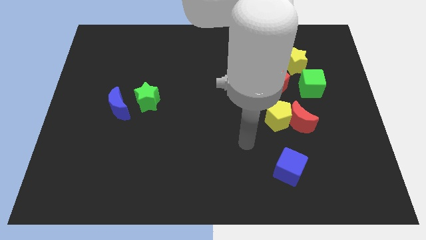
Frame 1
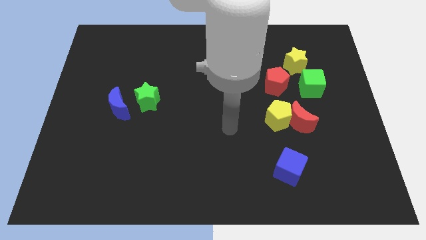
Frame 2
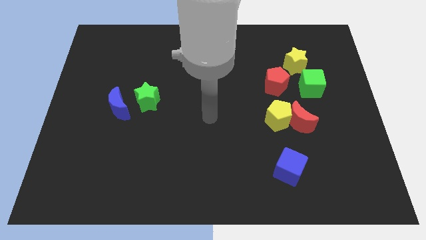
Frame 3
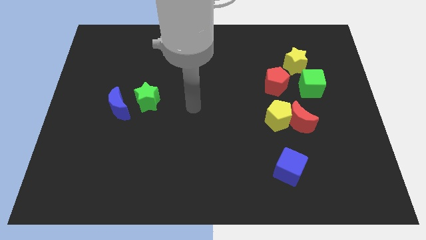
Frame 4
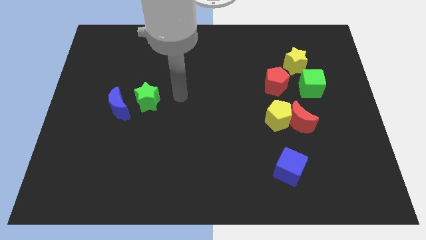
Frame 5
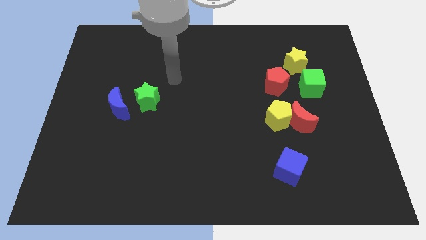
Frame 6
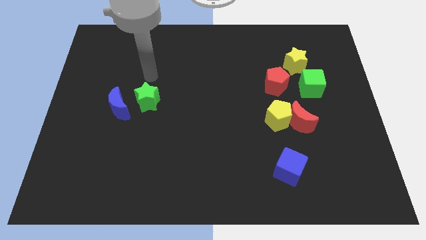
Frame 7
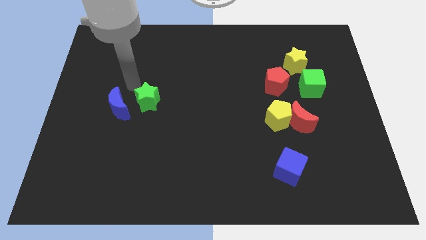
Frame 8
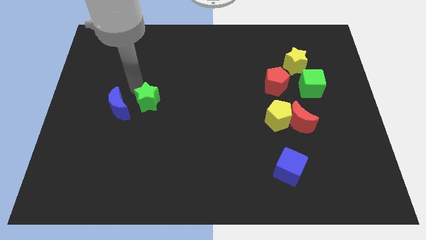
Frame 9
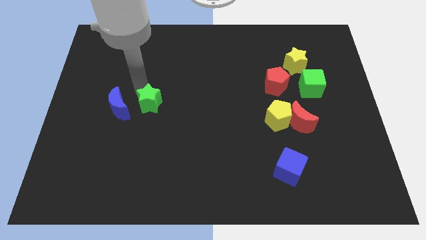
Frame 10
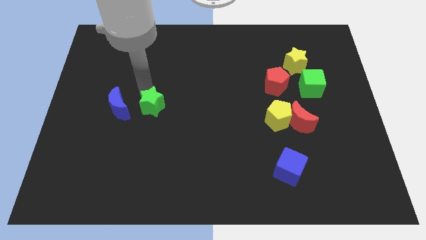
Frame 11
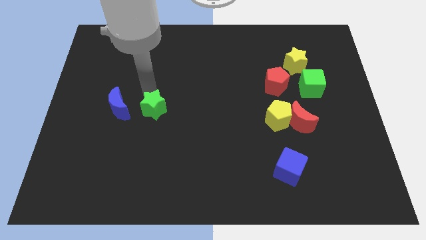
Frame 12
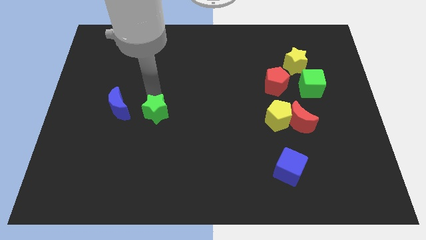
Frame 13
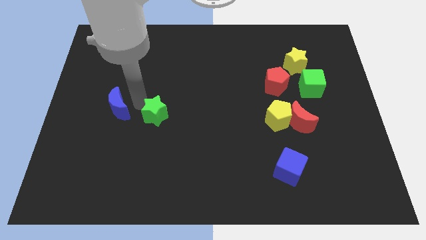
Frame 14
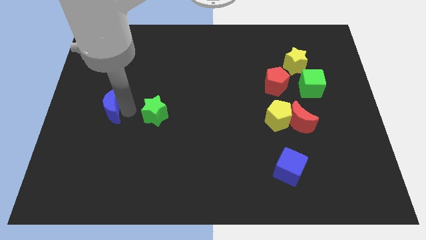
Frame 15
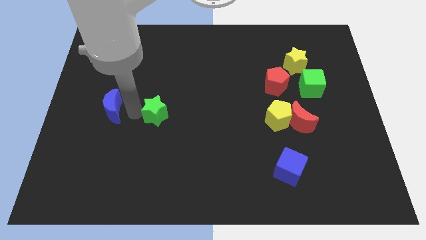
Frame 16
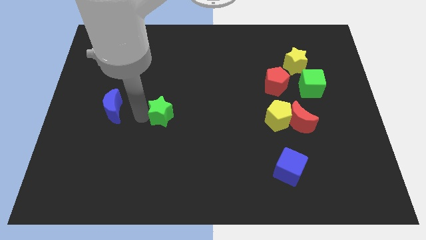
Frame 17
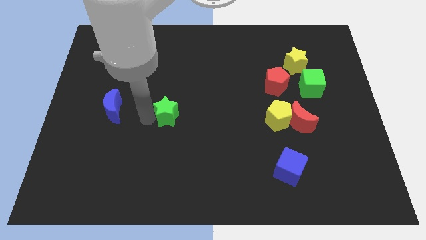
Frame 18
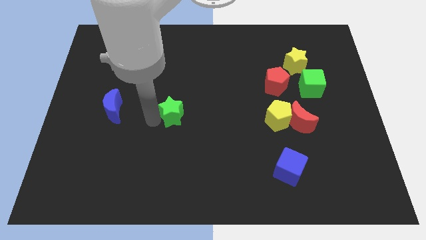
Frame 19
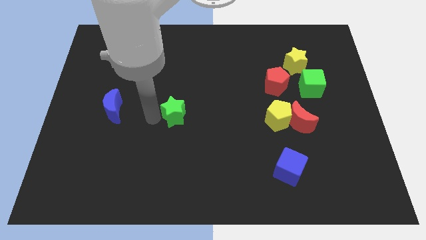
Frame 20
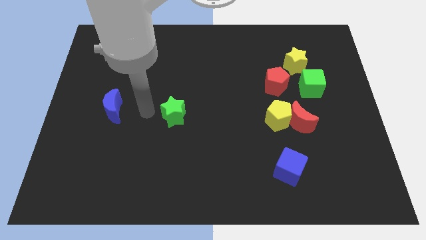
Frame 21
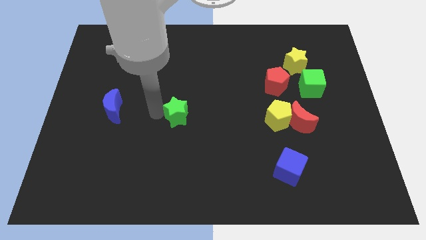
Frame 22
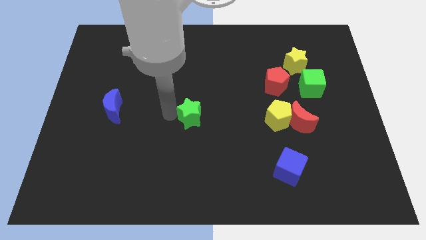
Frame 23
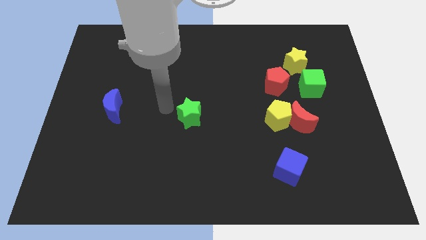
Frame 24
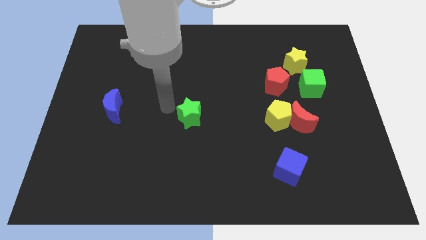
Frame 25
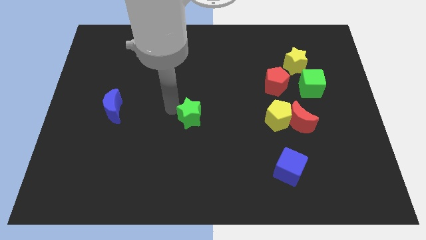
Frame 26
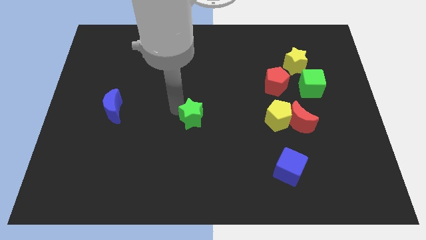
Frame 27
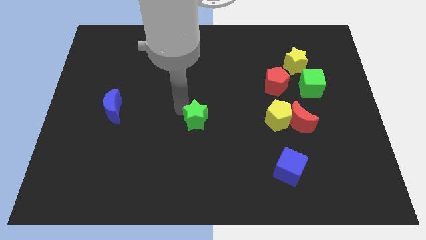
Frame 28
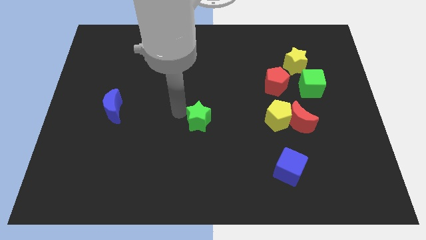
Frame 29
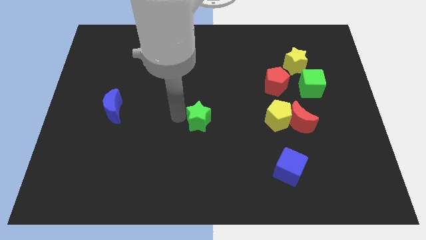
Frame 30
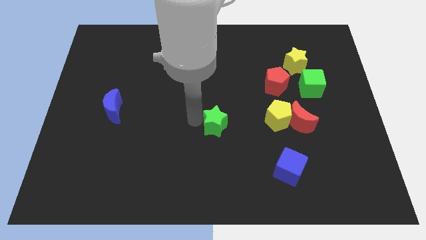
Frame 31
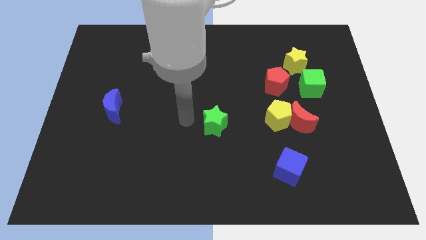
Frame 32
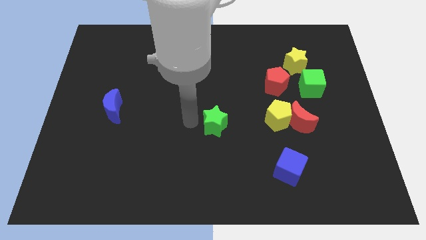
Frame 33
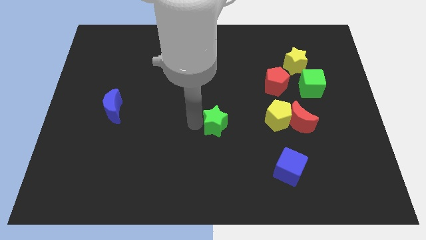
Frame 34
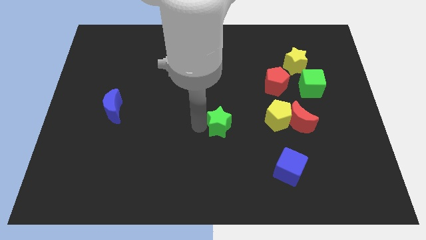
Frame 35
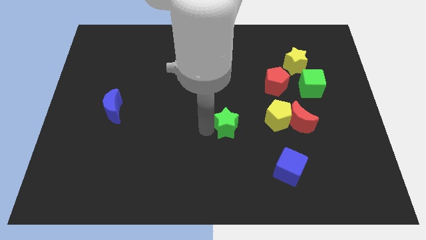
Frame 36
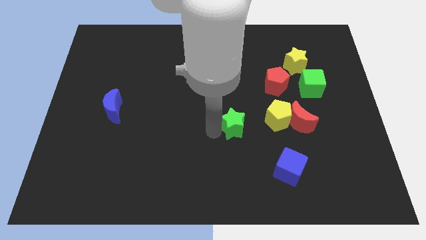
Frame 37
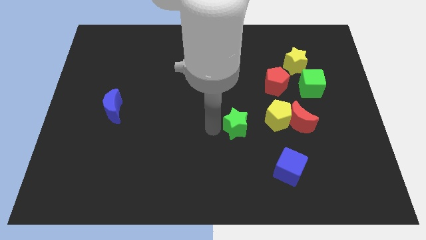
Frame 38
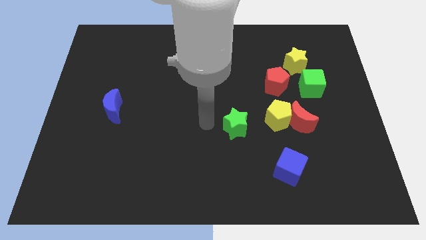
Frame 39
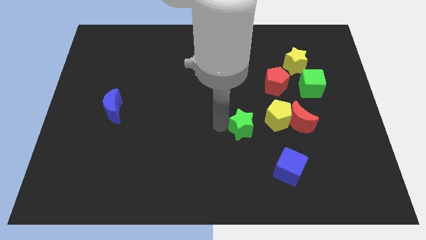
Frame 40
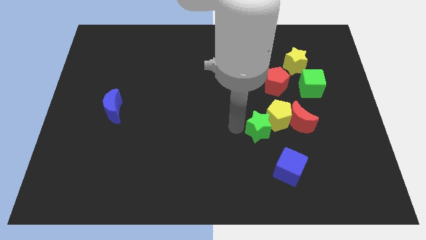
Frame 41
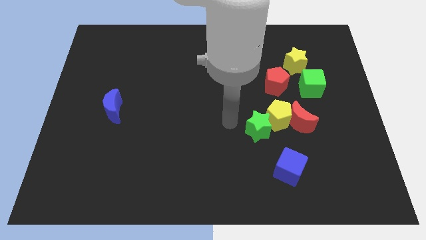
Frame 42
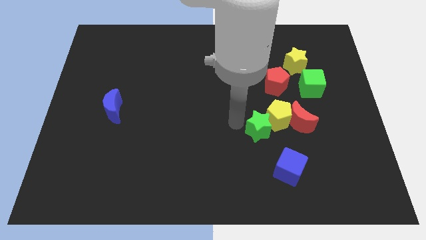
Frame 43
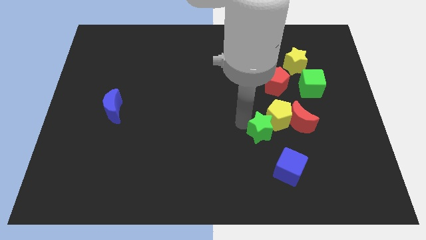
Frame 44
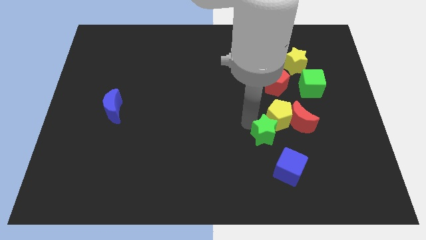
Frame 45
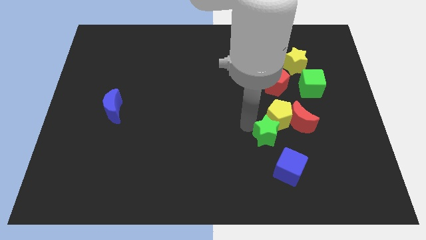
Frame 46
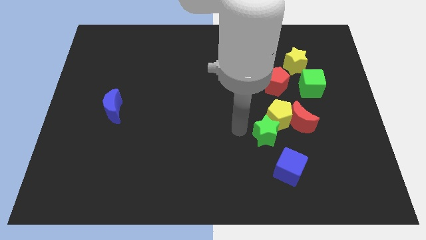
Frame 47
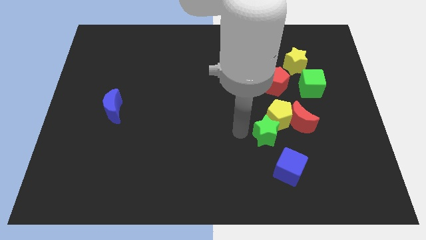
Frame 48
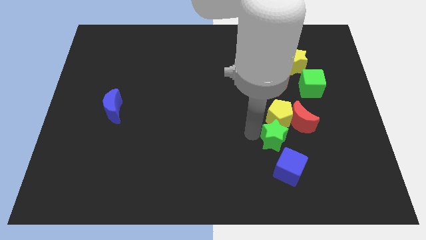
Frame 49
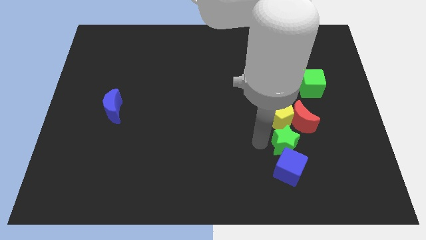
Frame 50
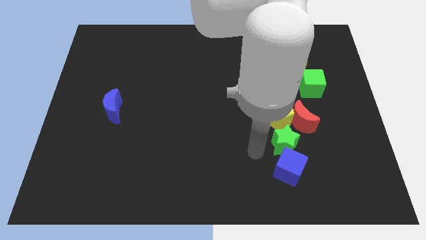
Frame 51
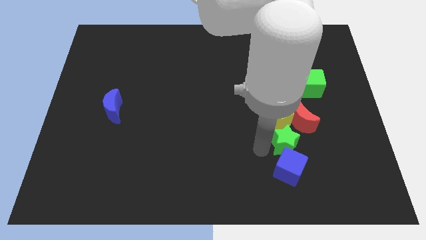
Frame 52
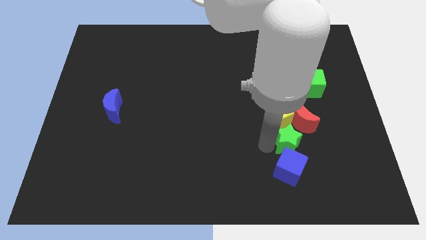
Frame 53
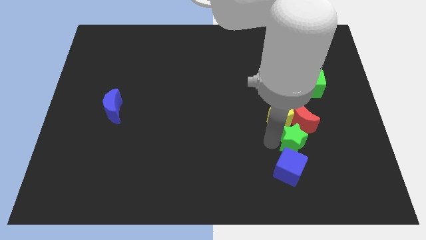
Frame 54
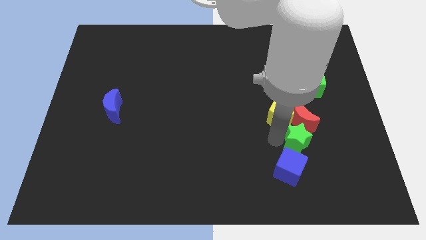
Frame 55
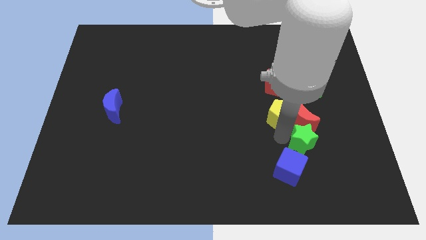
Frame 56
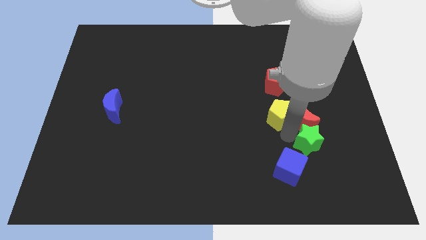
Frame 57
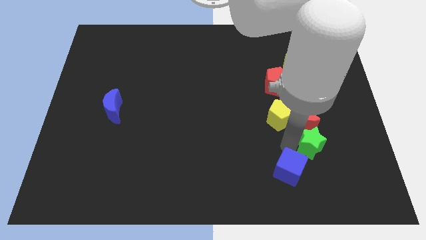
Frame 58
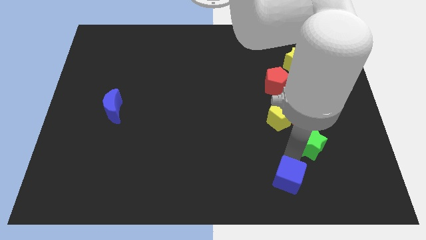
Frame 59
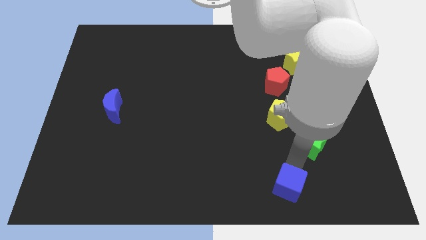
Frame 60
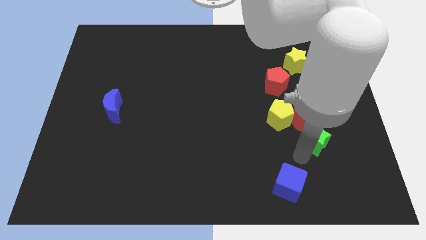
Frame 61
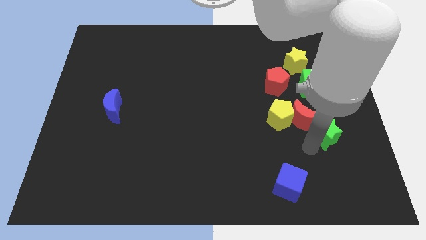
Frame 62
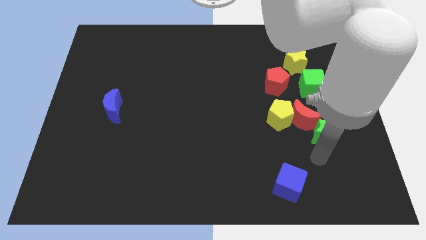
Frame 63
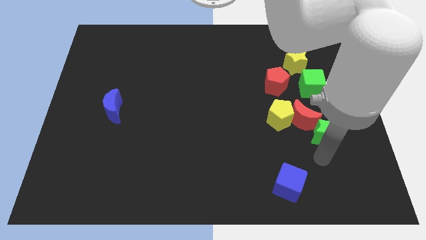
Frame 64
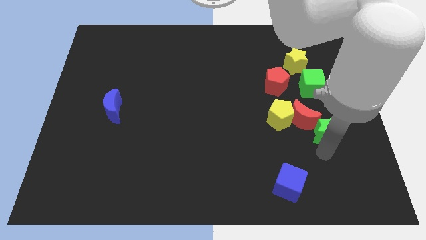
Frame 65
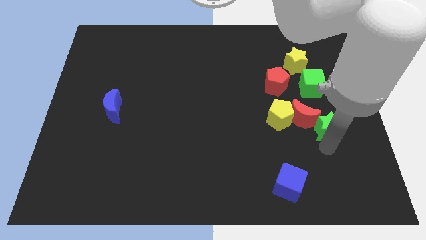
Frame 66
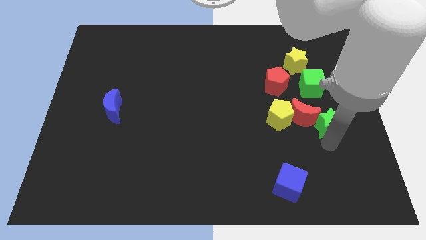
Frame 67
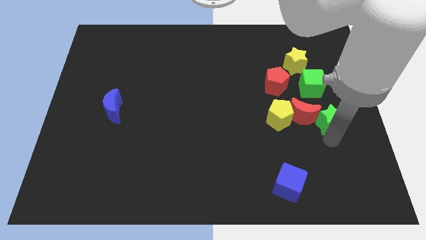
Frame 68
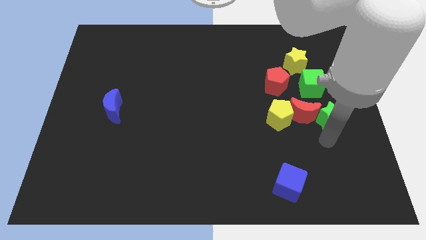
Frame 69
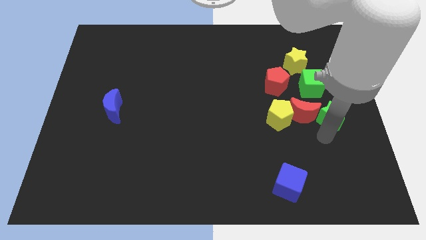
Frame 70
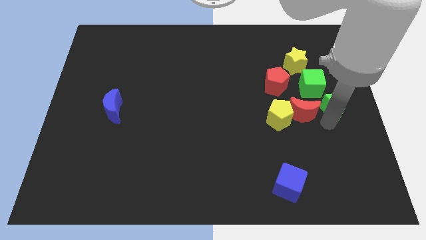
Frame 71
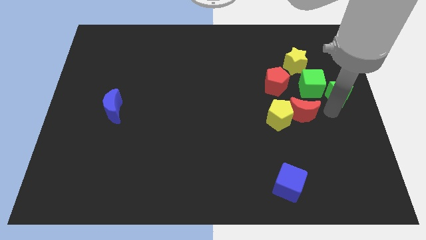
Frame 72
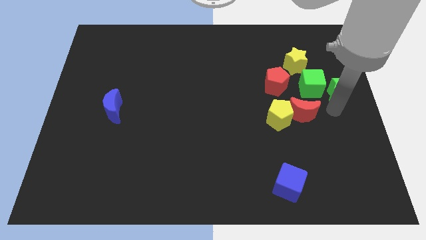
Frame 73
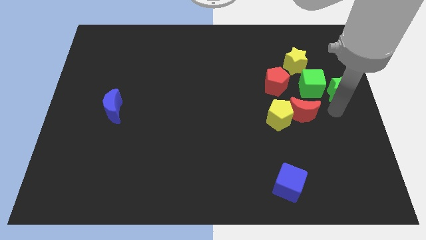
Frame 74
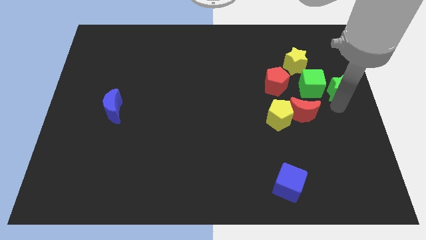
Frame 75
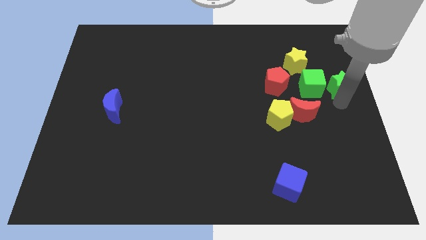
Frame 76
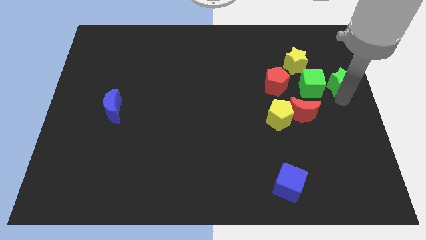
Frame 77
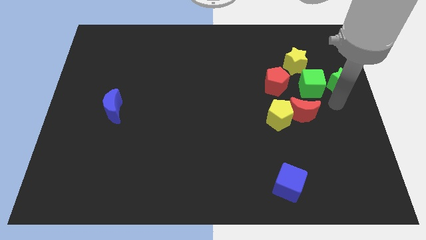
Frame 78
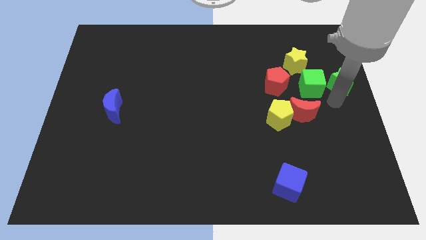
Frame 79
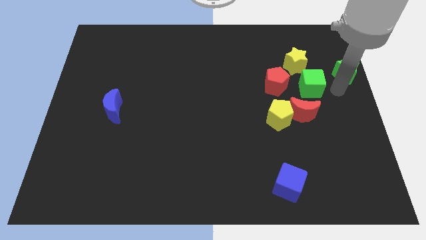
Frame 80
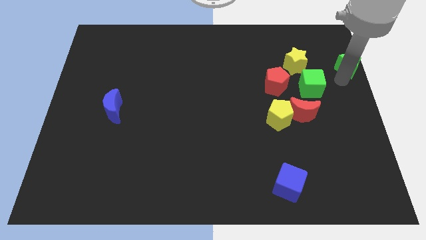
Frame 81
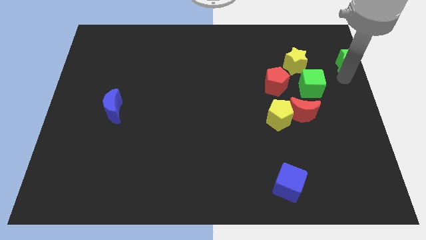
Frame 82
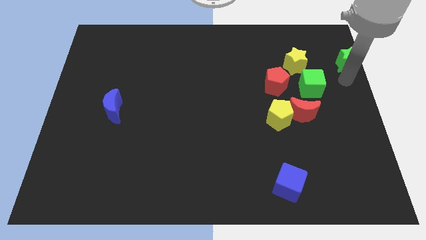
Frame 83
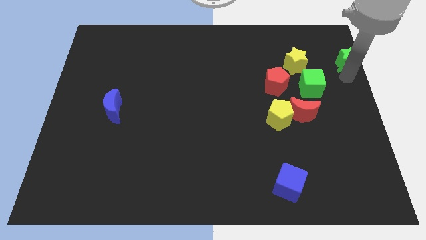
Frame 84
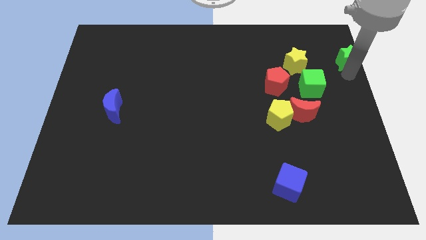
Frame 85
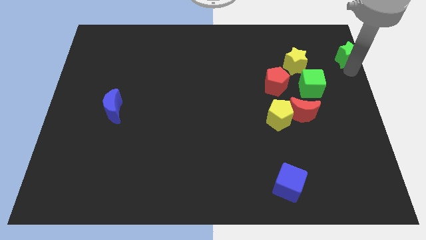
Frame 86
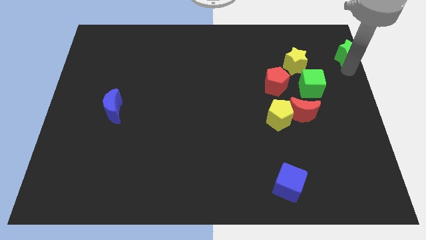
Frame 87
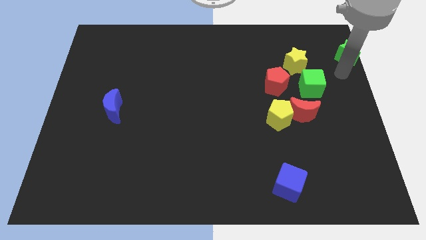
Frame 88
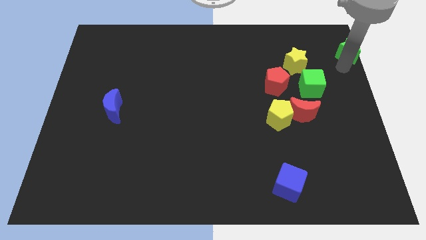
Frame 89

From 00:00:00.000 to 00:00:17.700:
slide the green star to the upper right corner
